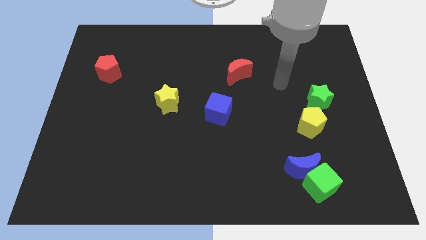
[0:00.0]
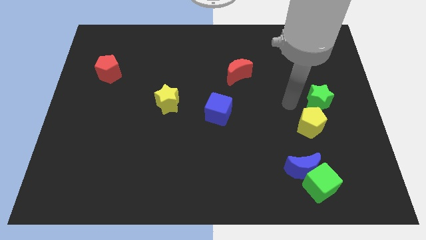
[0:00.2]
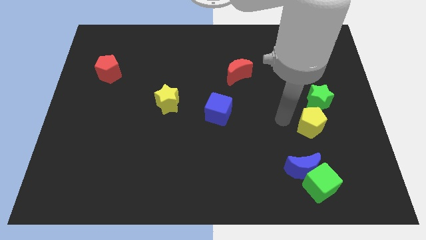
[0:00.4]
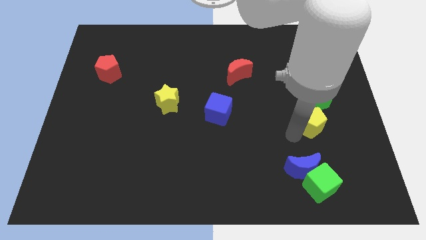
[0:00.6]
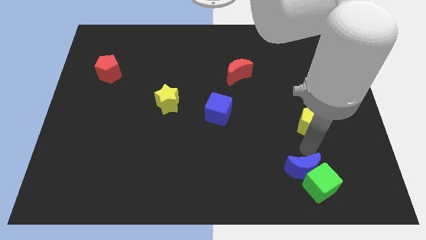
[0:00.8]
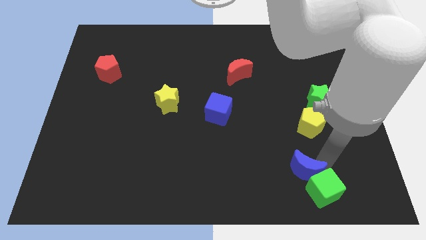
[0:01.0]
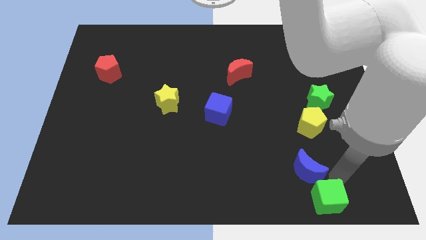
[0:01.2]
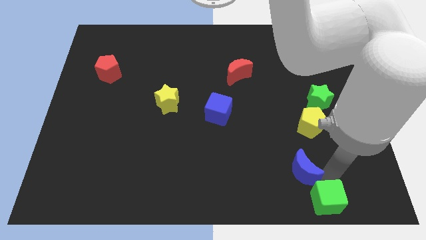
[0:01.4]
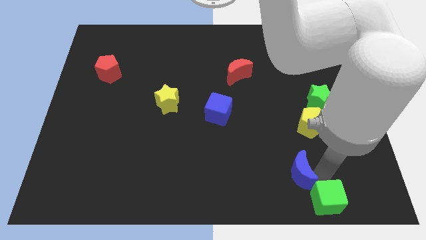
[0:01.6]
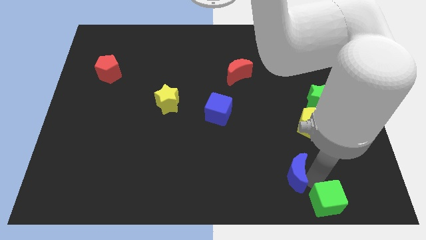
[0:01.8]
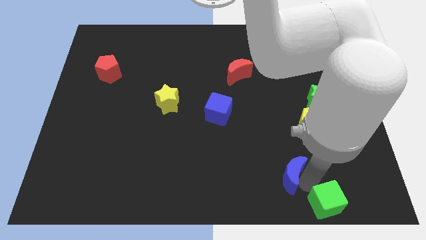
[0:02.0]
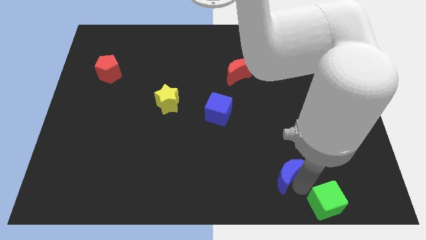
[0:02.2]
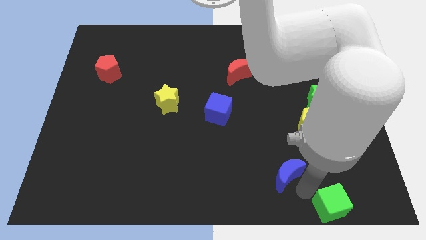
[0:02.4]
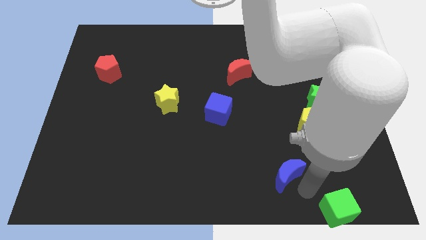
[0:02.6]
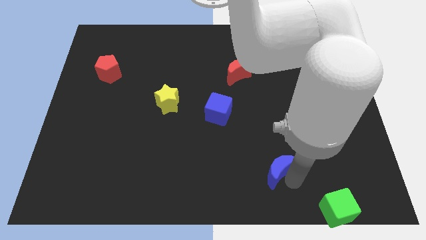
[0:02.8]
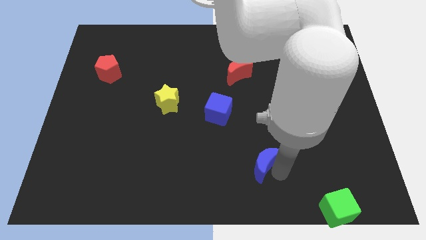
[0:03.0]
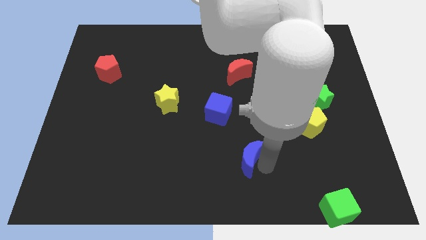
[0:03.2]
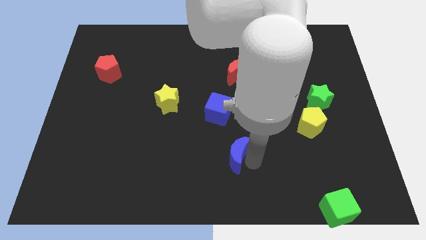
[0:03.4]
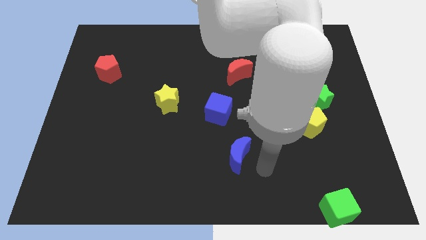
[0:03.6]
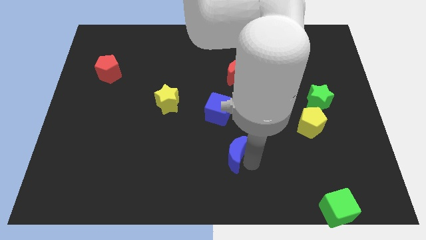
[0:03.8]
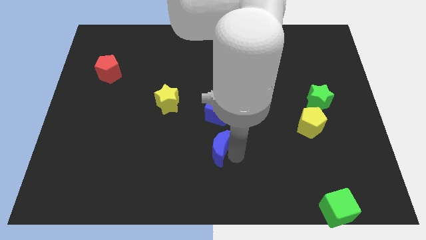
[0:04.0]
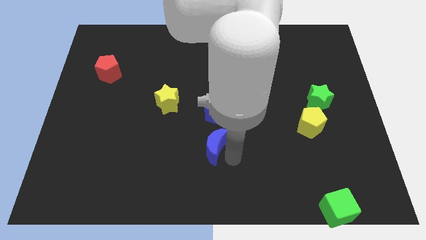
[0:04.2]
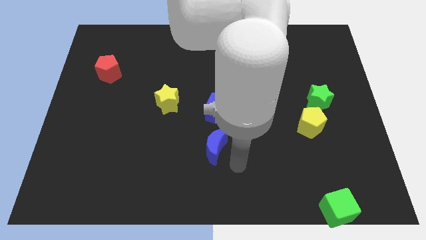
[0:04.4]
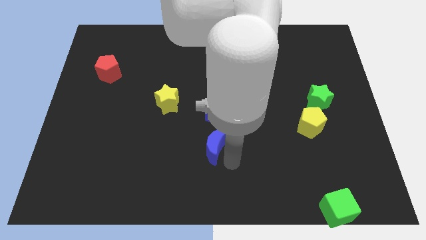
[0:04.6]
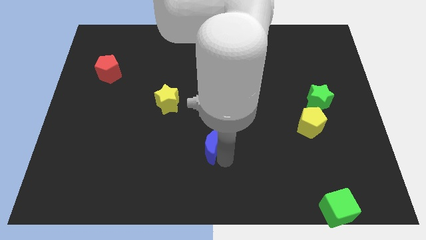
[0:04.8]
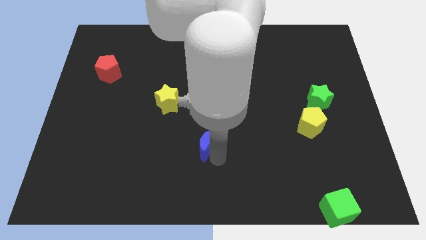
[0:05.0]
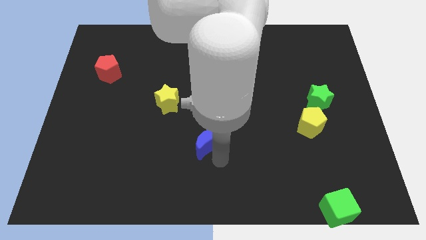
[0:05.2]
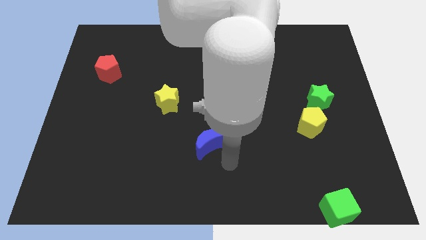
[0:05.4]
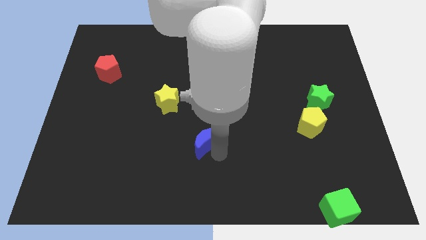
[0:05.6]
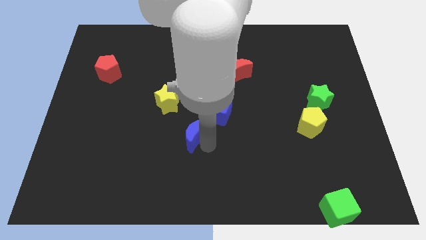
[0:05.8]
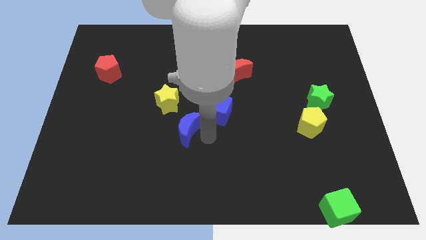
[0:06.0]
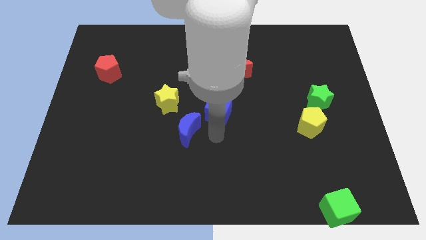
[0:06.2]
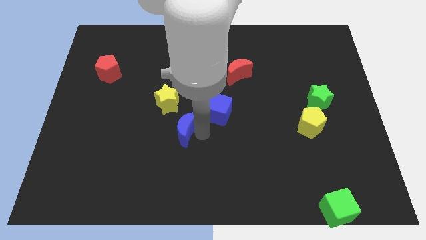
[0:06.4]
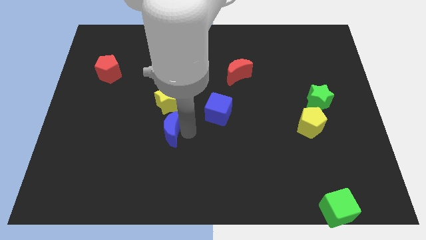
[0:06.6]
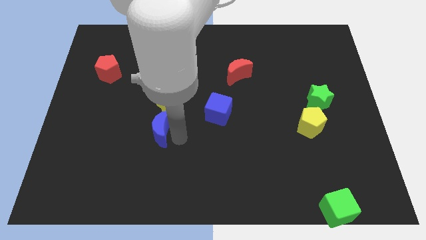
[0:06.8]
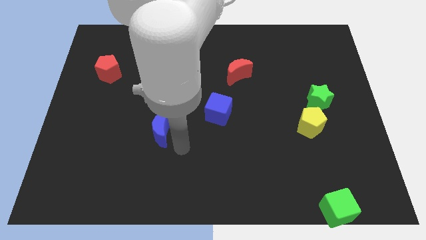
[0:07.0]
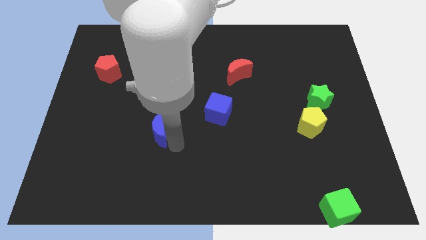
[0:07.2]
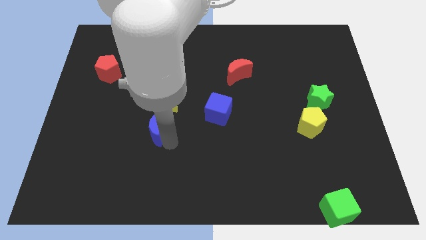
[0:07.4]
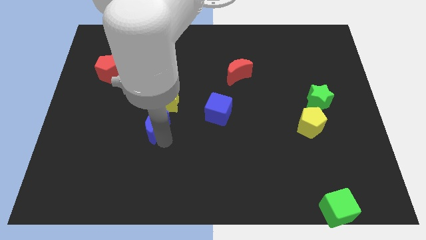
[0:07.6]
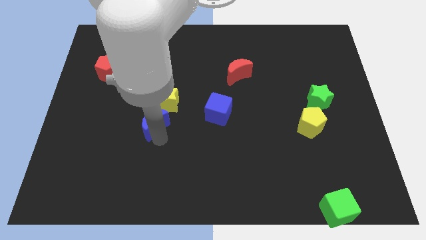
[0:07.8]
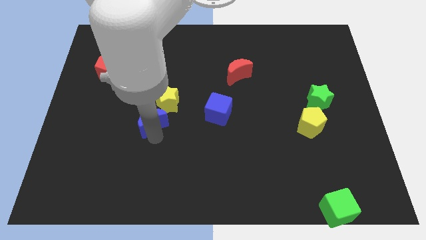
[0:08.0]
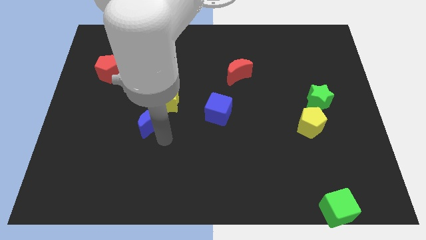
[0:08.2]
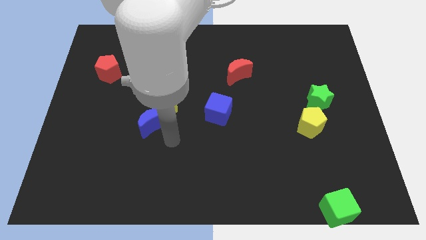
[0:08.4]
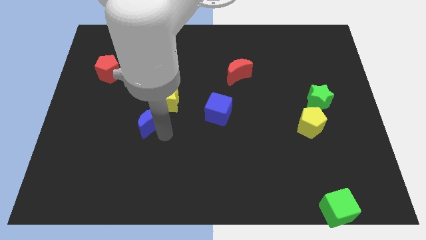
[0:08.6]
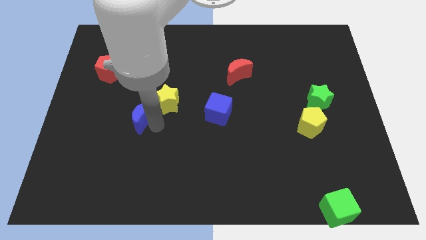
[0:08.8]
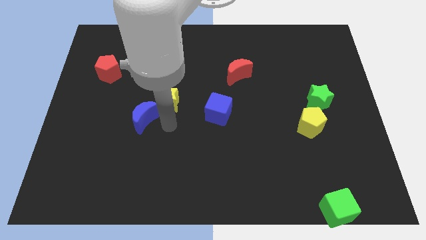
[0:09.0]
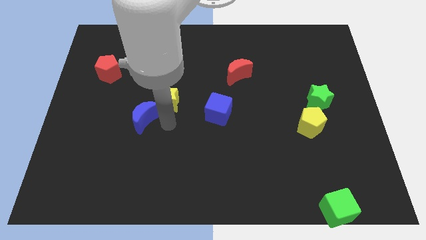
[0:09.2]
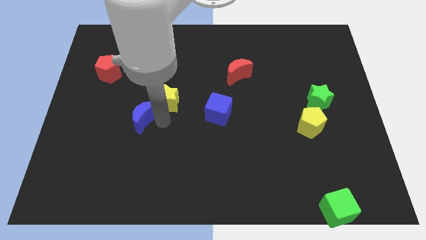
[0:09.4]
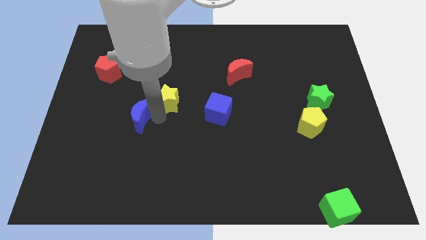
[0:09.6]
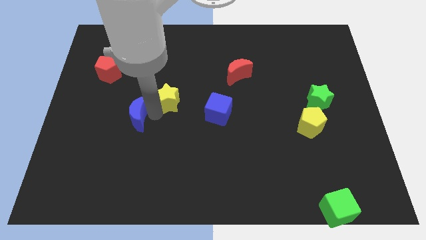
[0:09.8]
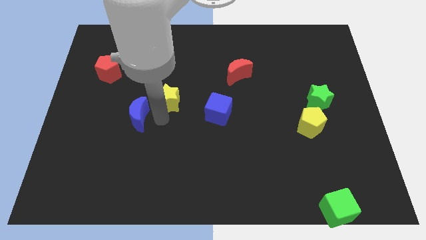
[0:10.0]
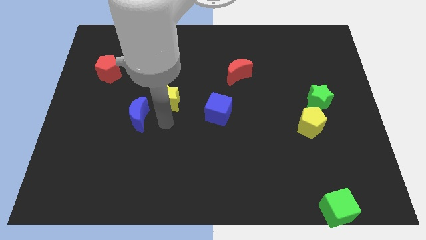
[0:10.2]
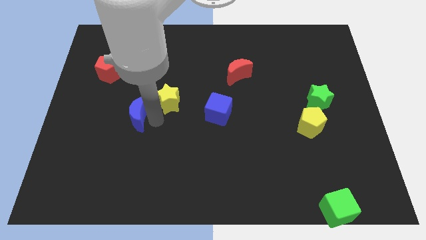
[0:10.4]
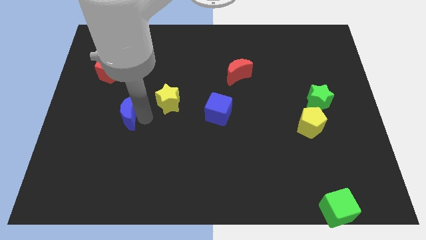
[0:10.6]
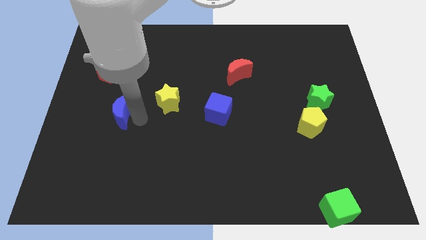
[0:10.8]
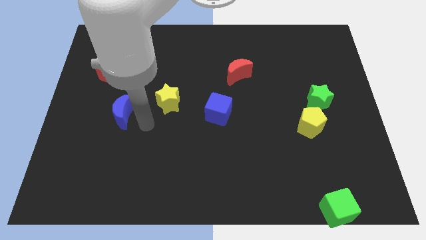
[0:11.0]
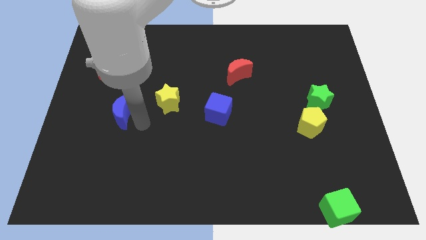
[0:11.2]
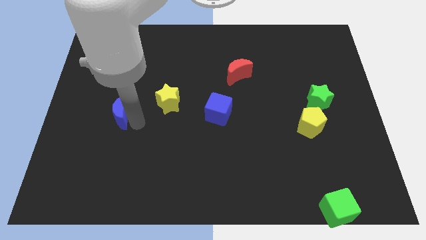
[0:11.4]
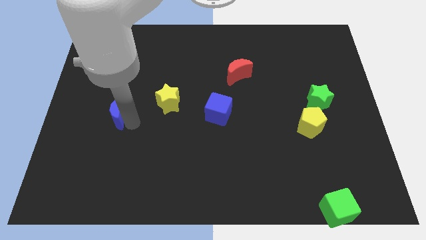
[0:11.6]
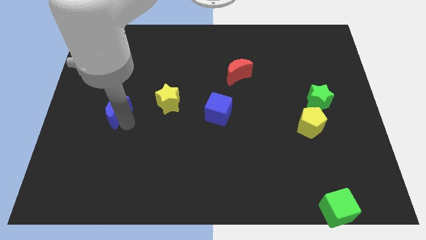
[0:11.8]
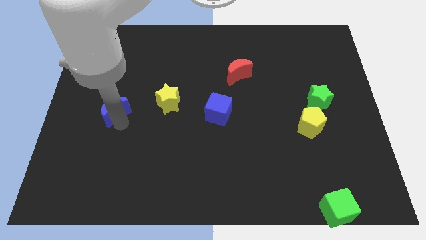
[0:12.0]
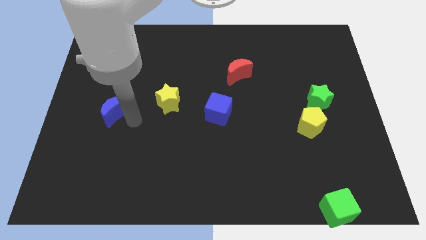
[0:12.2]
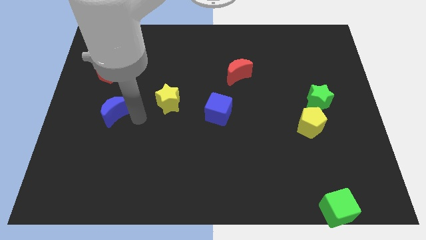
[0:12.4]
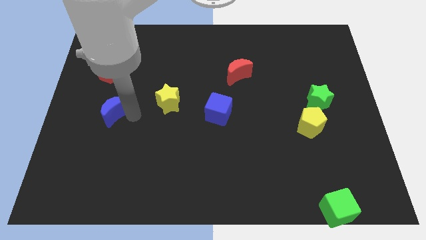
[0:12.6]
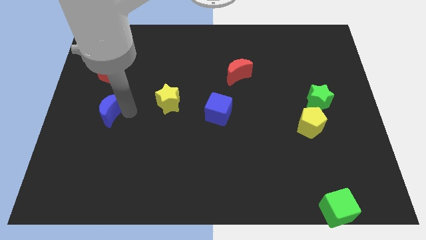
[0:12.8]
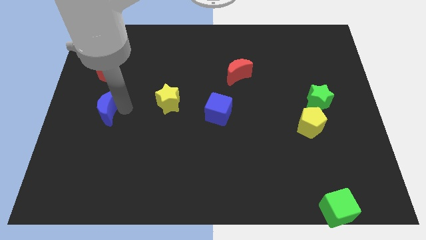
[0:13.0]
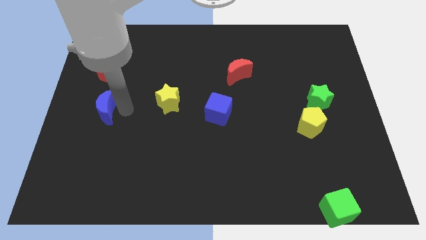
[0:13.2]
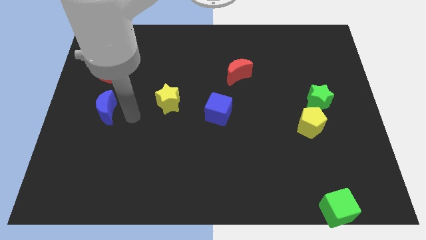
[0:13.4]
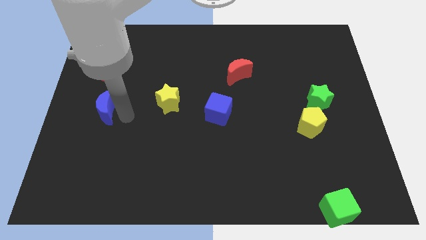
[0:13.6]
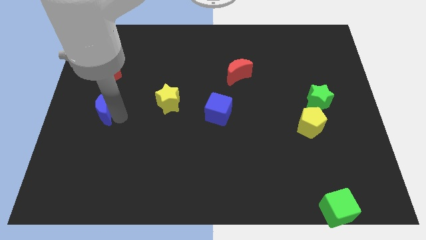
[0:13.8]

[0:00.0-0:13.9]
put the blue moon to the left side
